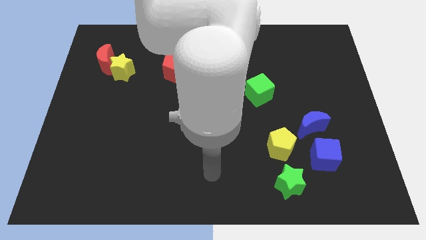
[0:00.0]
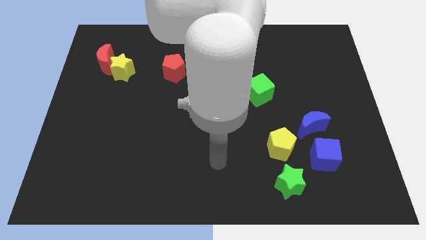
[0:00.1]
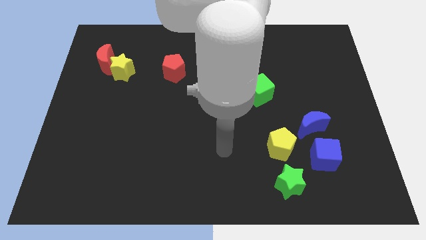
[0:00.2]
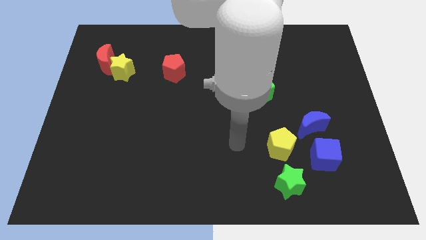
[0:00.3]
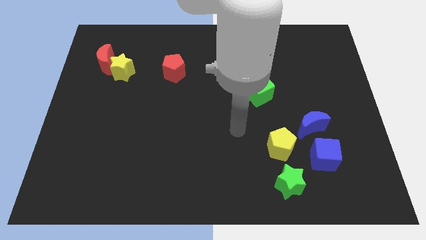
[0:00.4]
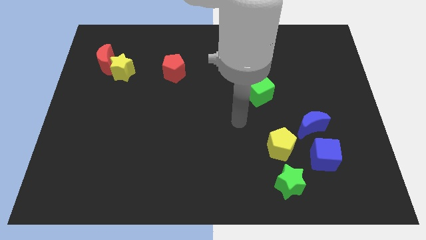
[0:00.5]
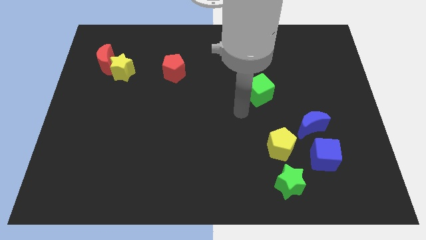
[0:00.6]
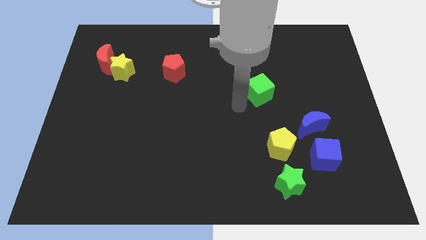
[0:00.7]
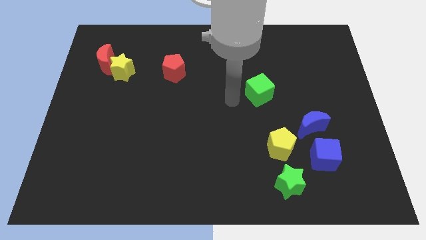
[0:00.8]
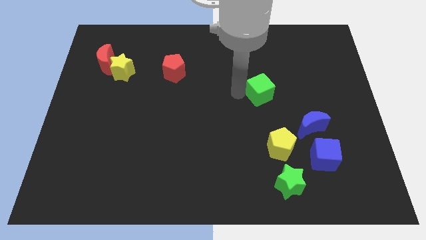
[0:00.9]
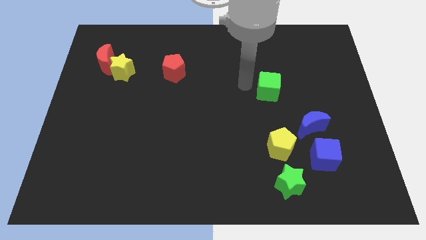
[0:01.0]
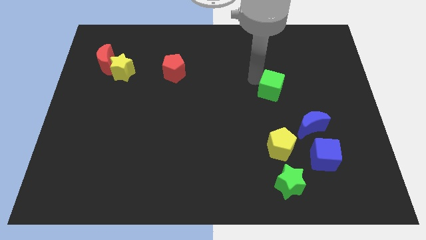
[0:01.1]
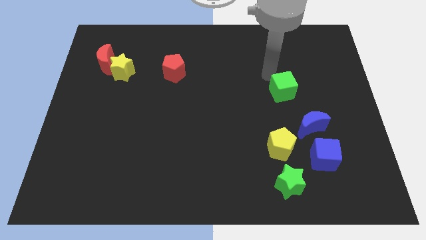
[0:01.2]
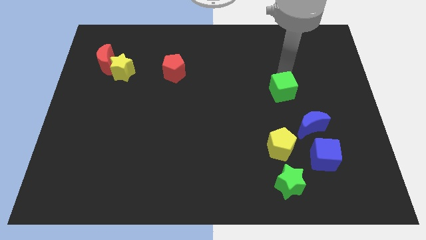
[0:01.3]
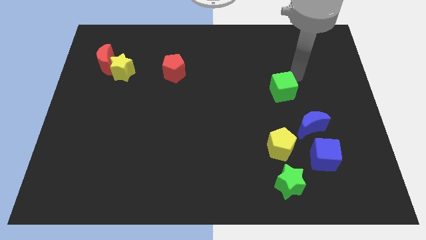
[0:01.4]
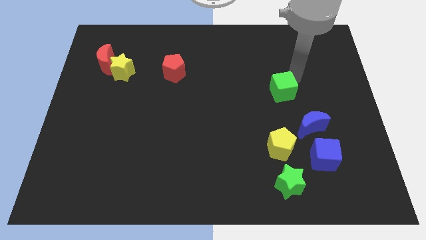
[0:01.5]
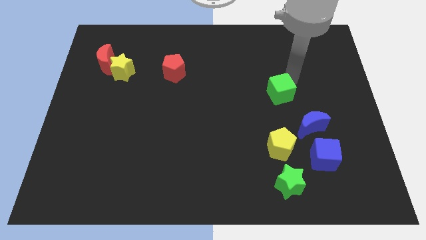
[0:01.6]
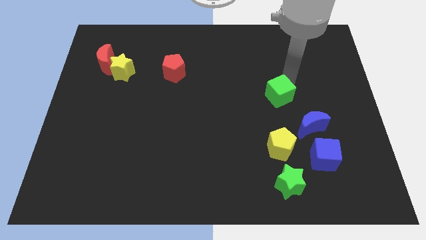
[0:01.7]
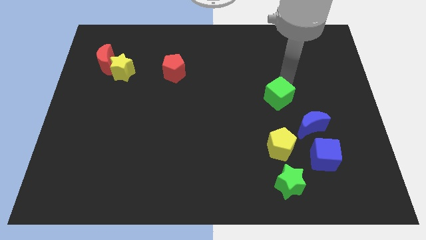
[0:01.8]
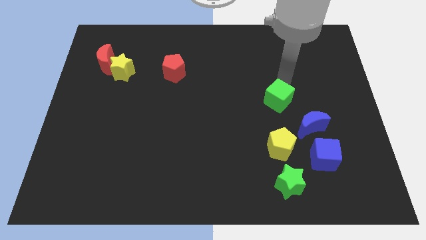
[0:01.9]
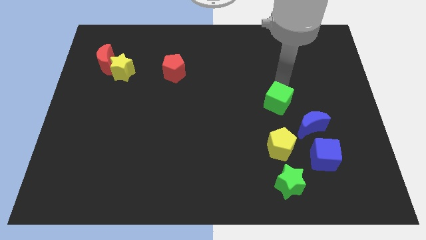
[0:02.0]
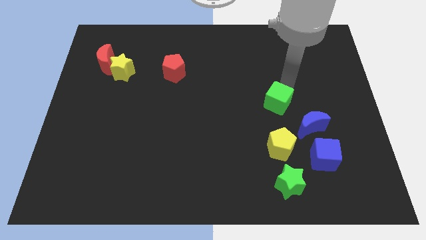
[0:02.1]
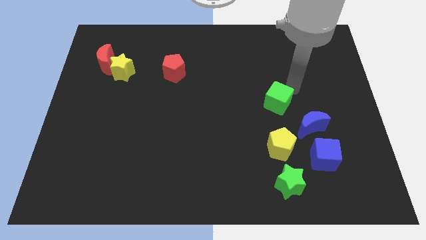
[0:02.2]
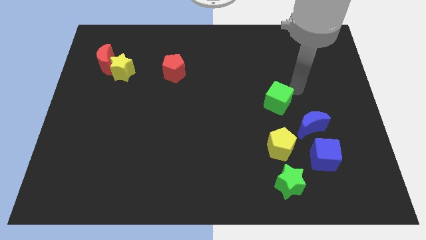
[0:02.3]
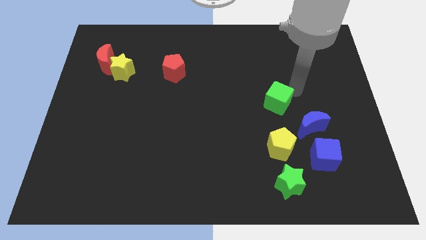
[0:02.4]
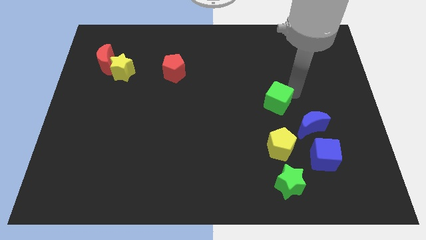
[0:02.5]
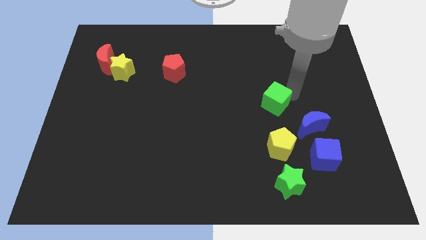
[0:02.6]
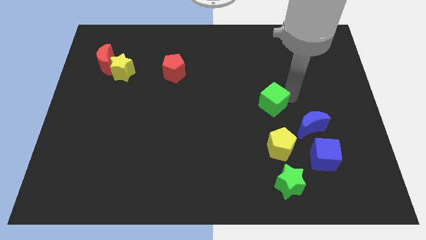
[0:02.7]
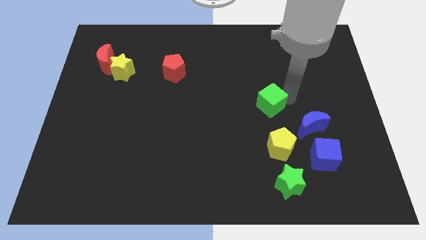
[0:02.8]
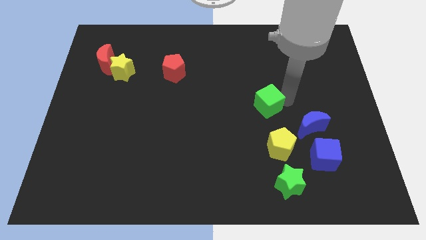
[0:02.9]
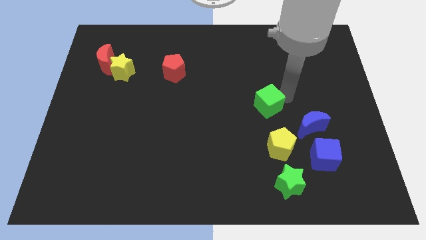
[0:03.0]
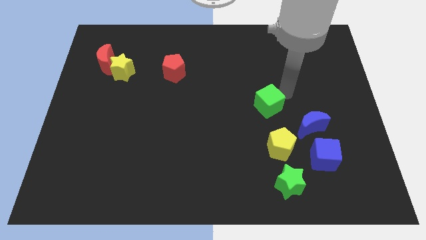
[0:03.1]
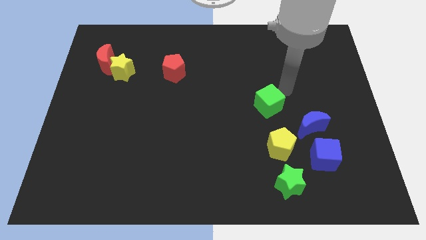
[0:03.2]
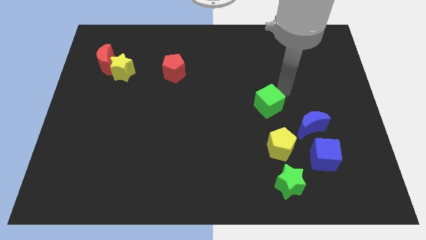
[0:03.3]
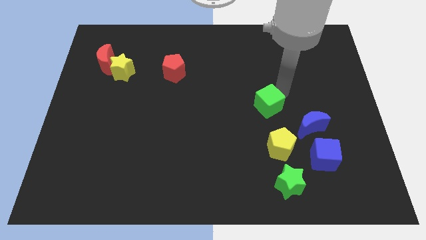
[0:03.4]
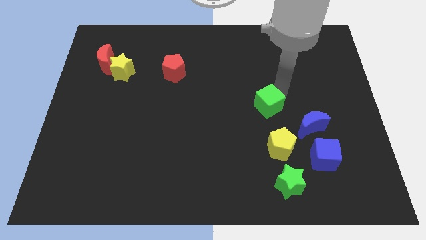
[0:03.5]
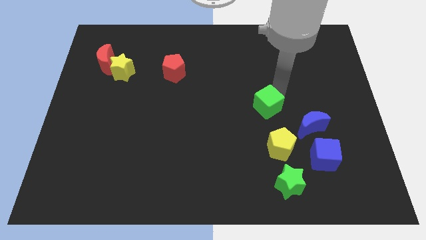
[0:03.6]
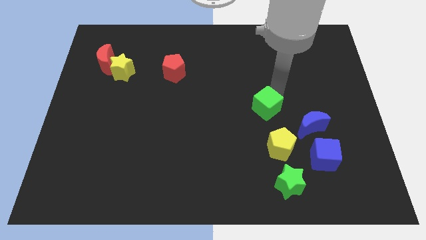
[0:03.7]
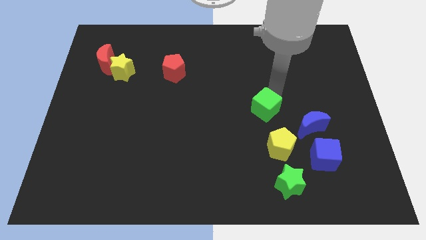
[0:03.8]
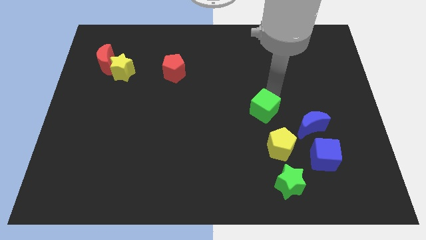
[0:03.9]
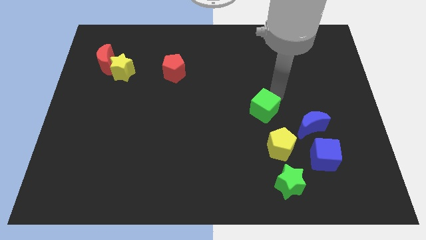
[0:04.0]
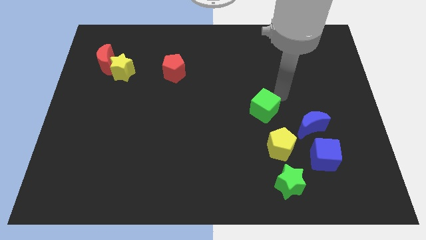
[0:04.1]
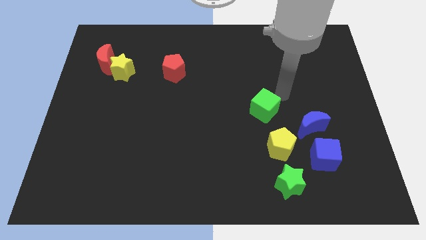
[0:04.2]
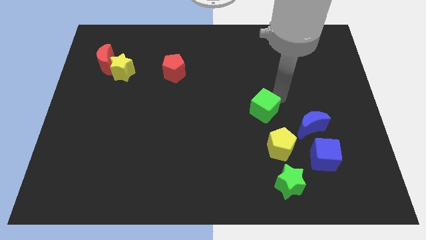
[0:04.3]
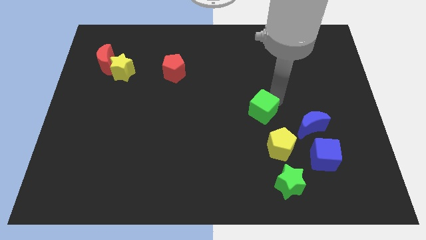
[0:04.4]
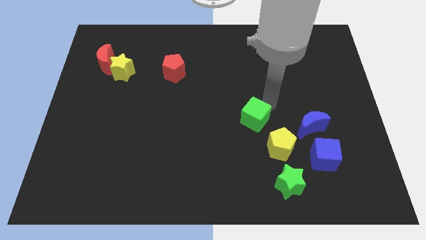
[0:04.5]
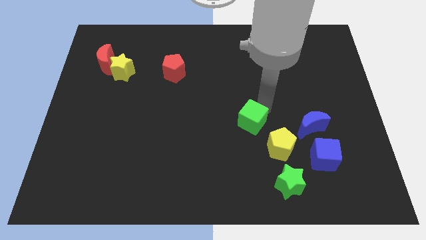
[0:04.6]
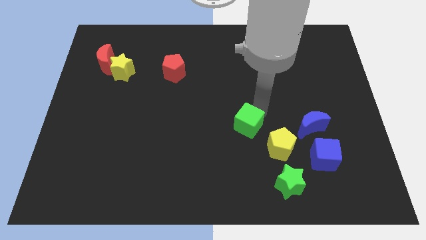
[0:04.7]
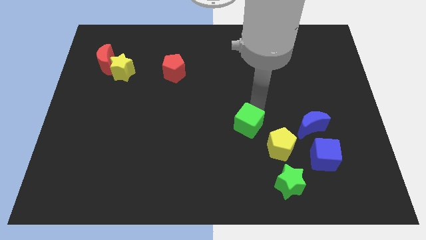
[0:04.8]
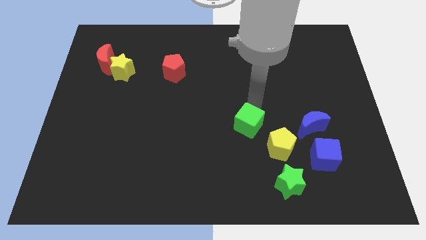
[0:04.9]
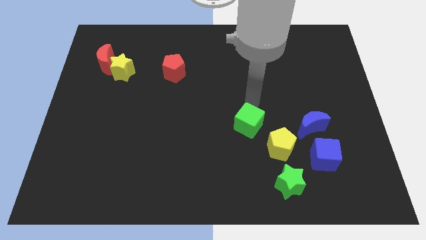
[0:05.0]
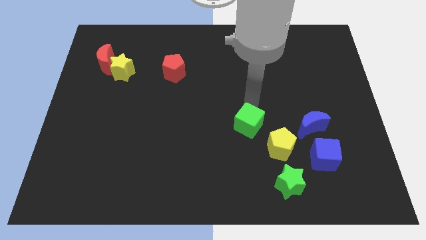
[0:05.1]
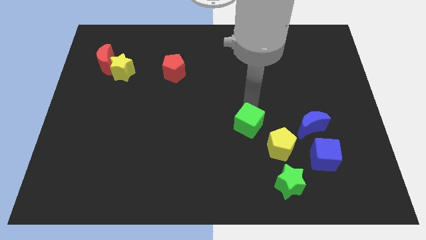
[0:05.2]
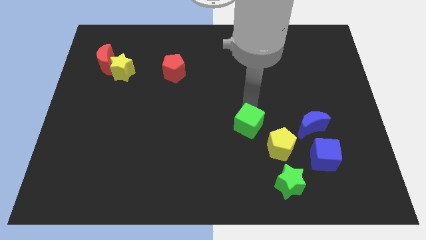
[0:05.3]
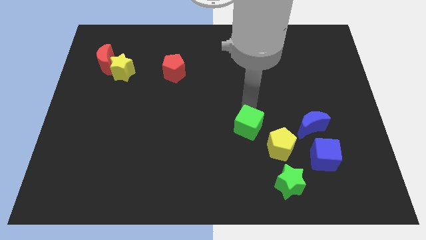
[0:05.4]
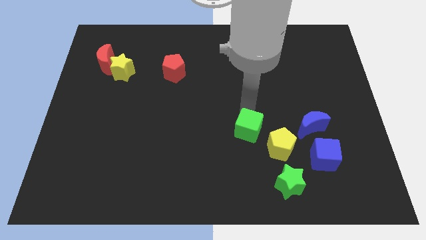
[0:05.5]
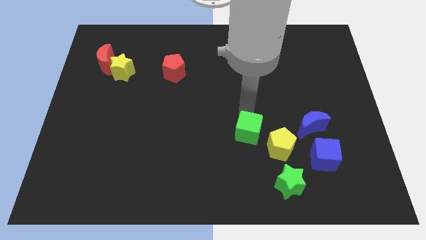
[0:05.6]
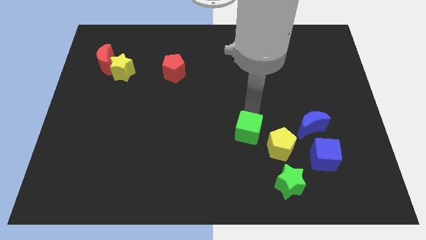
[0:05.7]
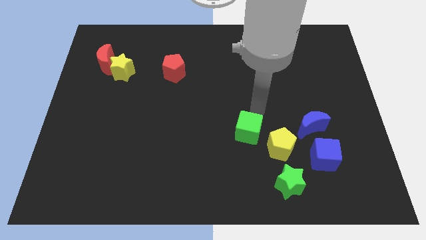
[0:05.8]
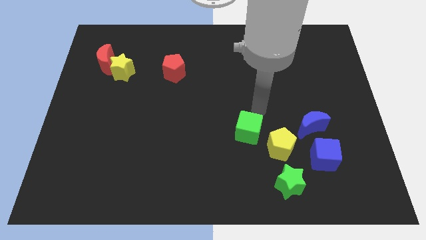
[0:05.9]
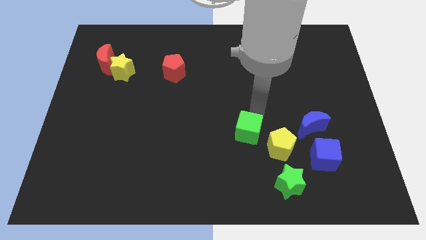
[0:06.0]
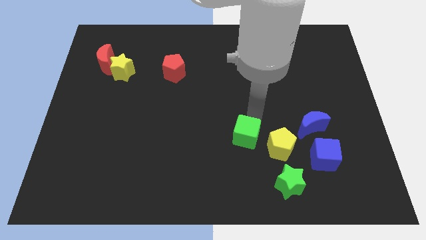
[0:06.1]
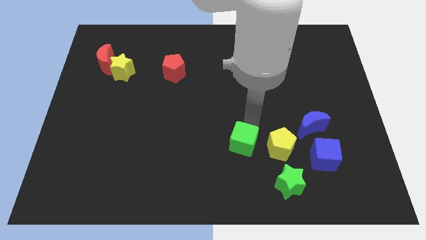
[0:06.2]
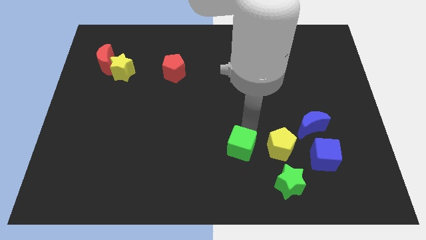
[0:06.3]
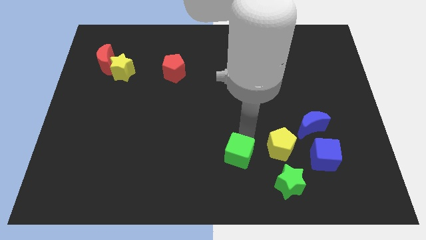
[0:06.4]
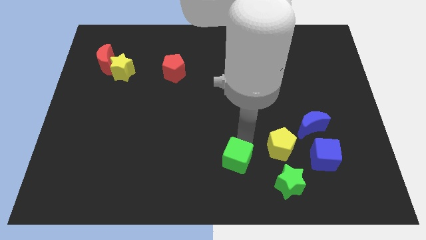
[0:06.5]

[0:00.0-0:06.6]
move the green cube to the bottom
